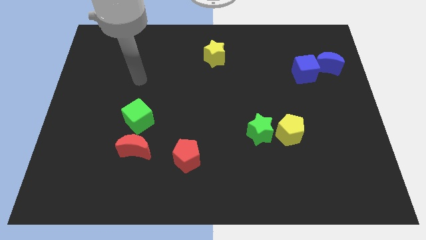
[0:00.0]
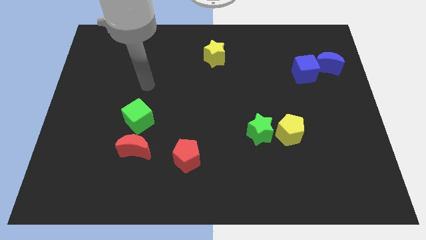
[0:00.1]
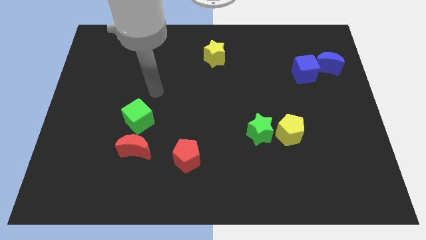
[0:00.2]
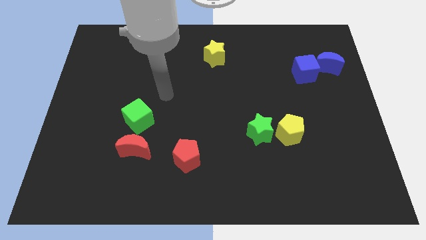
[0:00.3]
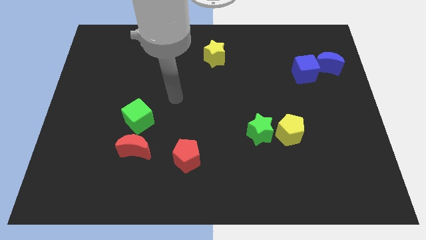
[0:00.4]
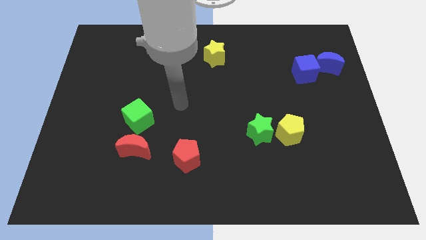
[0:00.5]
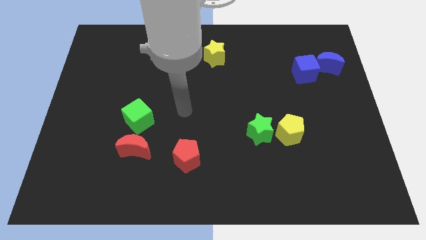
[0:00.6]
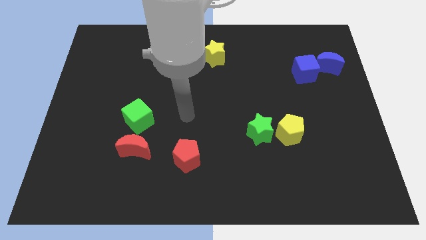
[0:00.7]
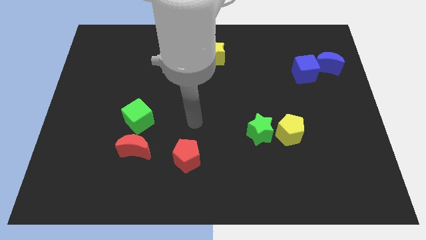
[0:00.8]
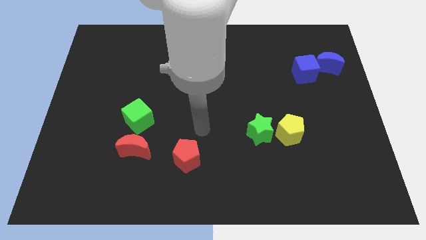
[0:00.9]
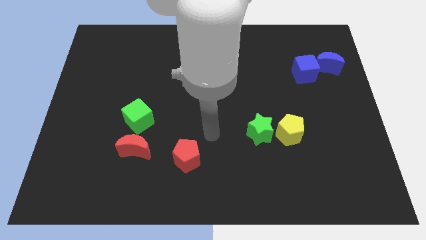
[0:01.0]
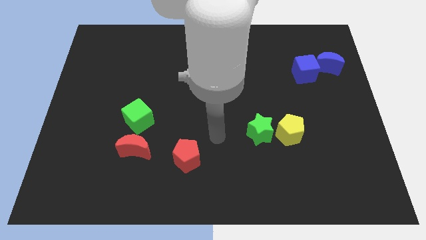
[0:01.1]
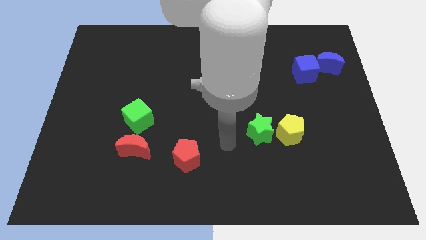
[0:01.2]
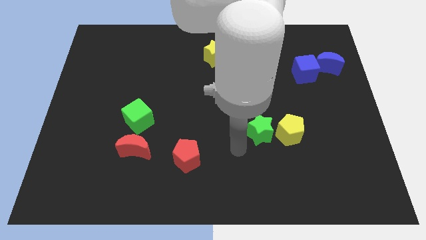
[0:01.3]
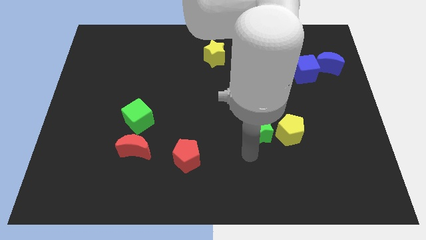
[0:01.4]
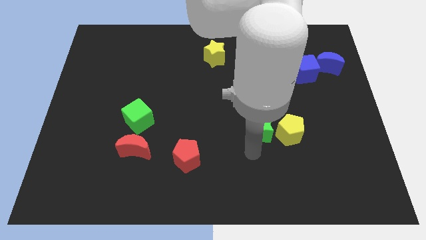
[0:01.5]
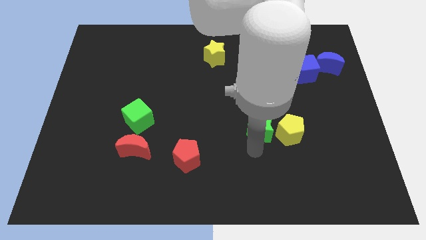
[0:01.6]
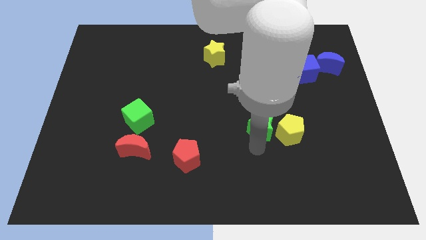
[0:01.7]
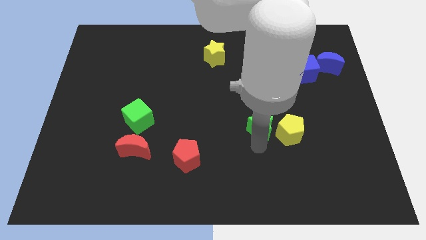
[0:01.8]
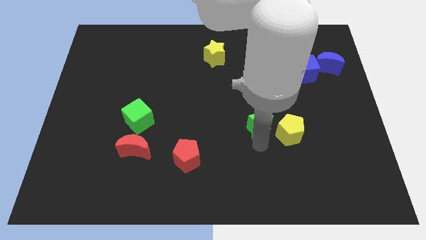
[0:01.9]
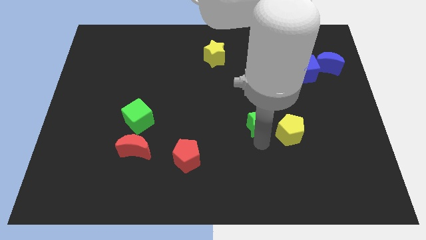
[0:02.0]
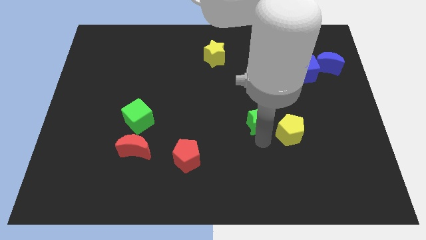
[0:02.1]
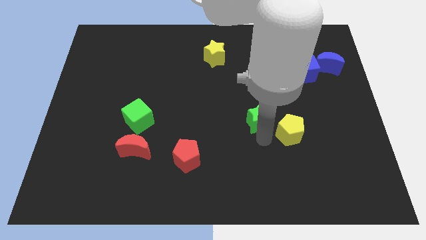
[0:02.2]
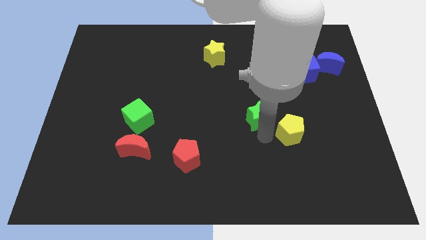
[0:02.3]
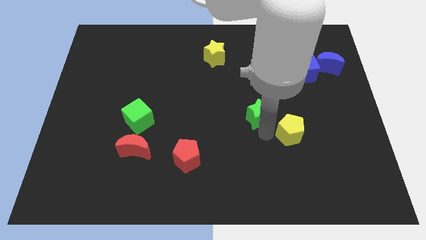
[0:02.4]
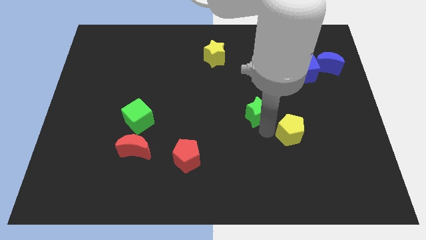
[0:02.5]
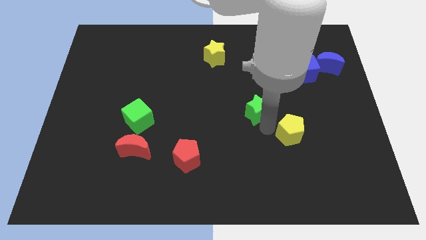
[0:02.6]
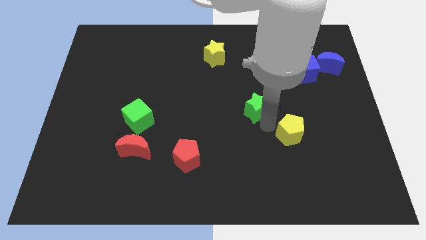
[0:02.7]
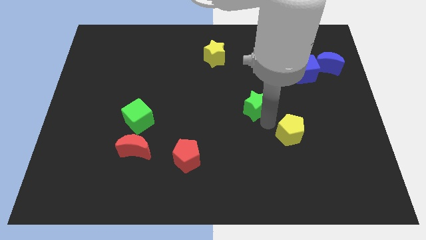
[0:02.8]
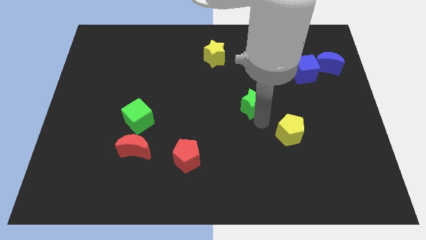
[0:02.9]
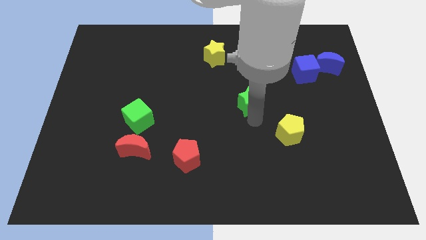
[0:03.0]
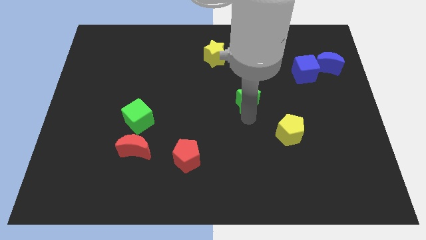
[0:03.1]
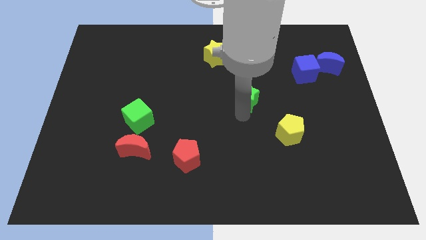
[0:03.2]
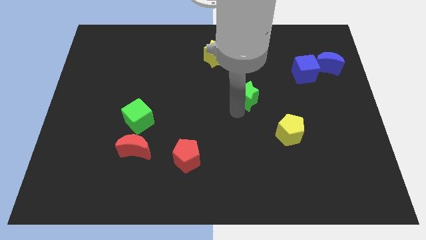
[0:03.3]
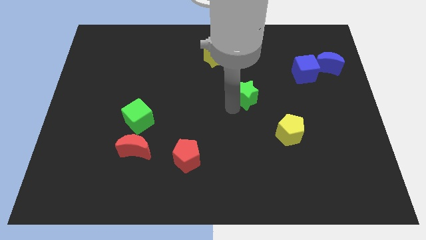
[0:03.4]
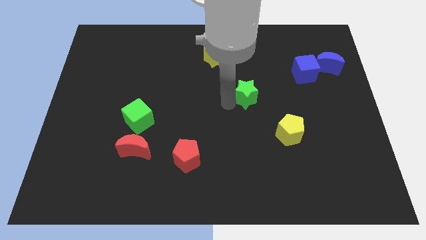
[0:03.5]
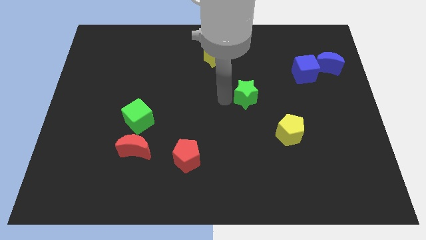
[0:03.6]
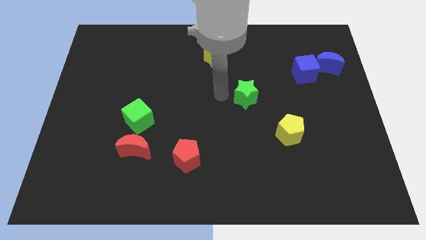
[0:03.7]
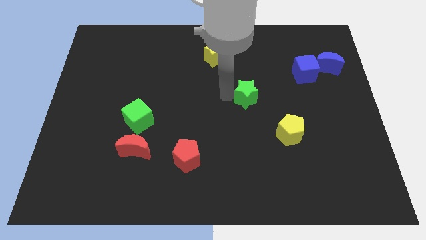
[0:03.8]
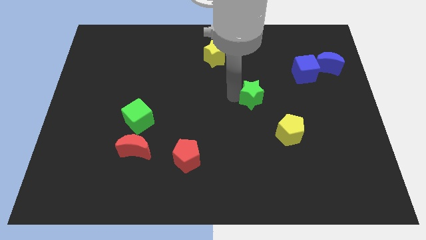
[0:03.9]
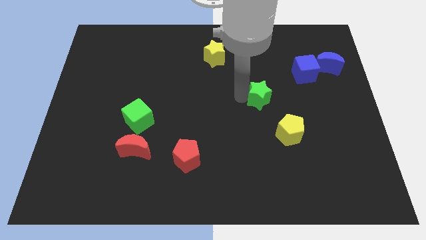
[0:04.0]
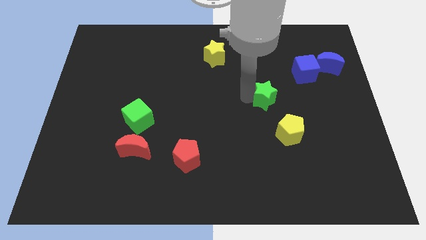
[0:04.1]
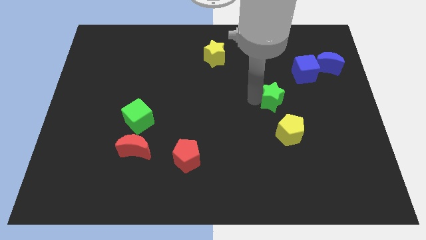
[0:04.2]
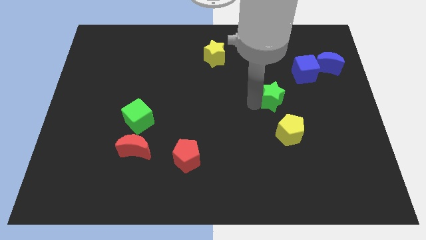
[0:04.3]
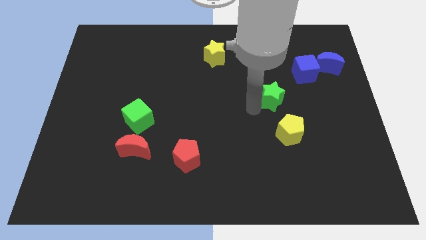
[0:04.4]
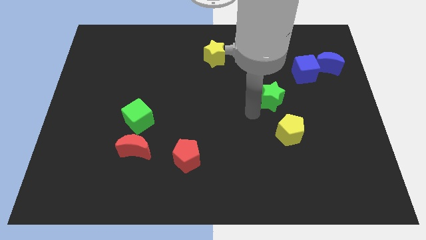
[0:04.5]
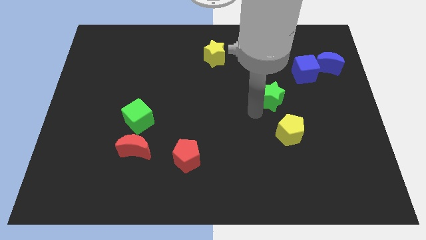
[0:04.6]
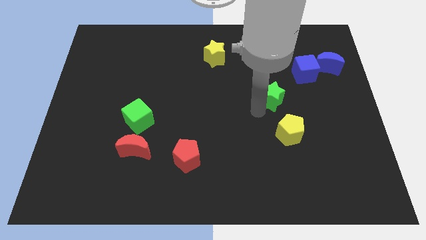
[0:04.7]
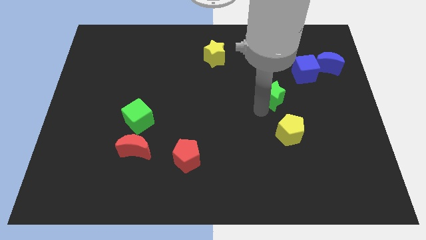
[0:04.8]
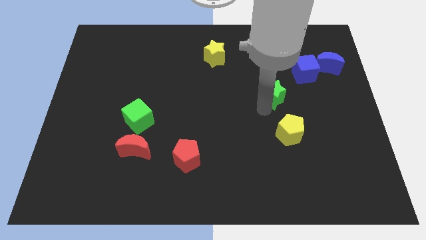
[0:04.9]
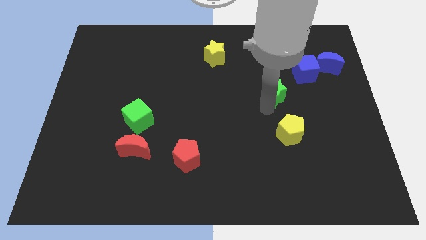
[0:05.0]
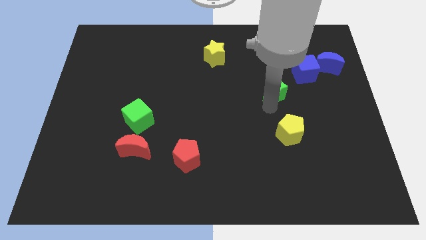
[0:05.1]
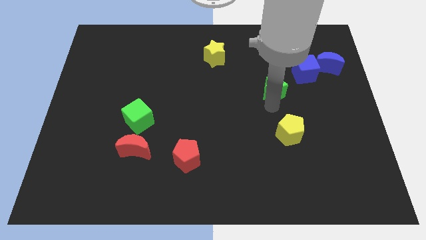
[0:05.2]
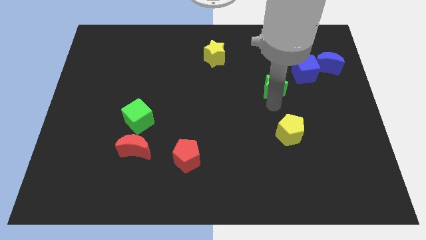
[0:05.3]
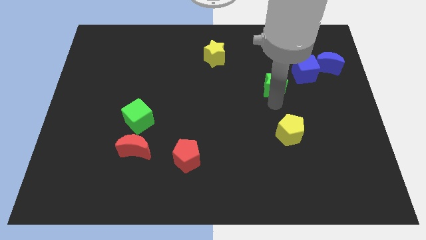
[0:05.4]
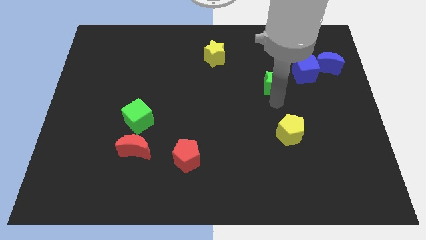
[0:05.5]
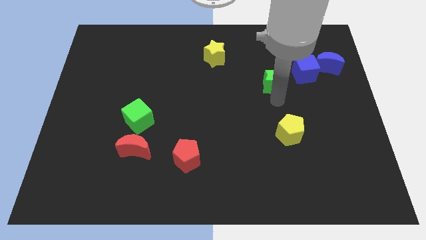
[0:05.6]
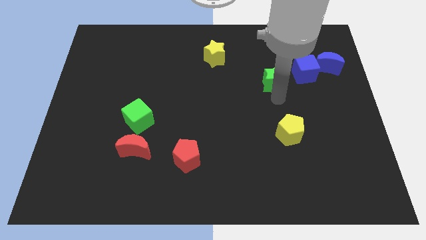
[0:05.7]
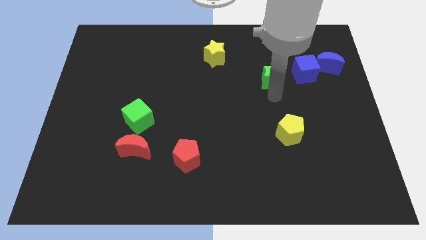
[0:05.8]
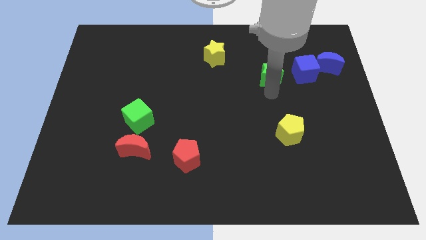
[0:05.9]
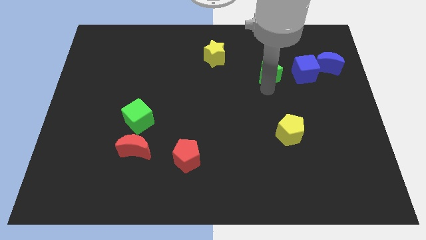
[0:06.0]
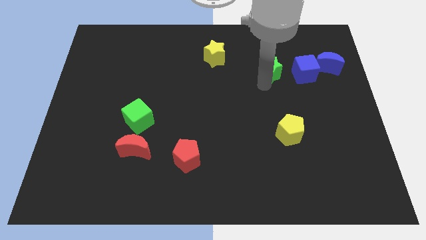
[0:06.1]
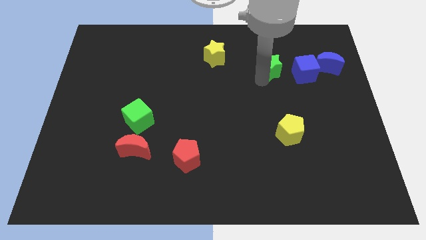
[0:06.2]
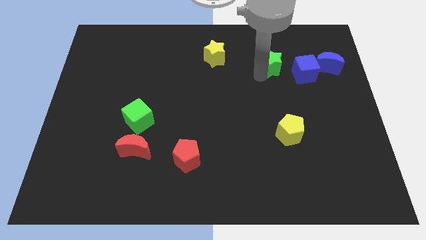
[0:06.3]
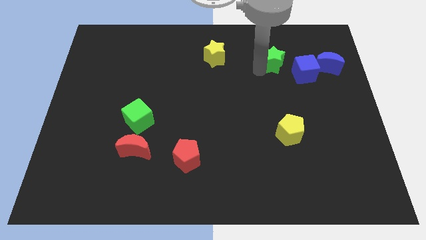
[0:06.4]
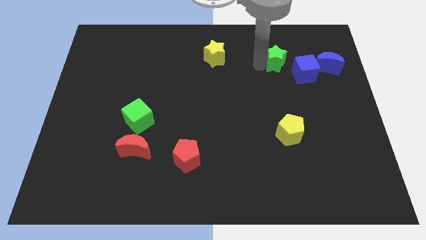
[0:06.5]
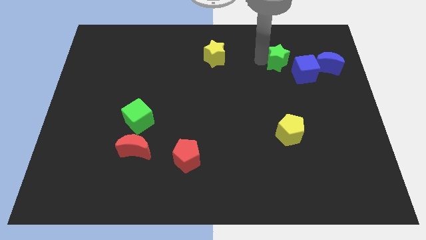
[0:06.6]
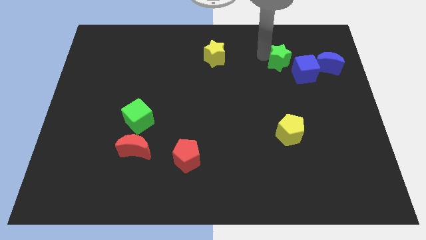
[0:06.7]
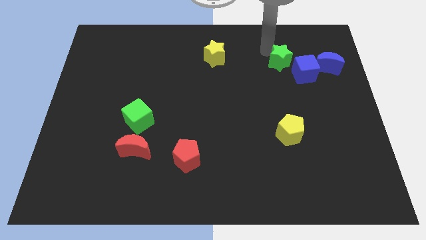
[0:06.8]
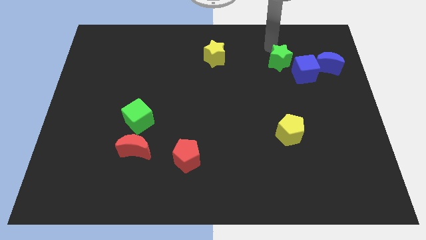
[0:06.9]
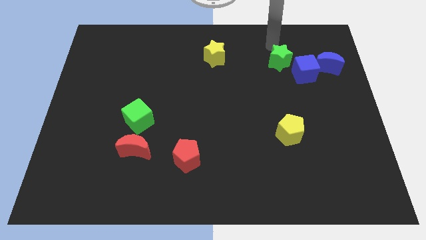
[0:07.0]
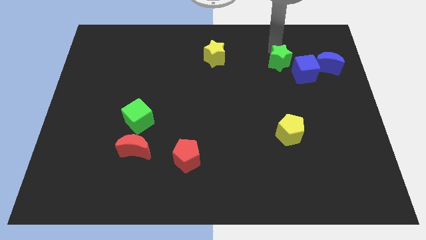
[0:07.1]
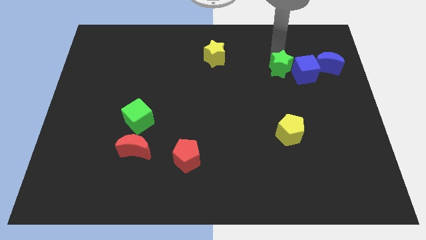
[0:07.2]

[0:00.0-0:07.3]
move the green star close to the blue cube
